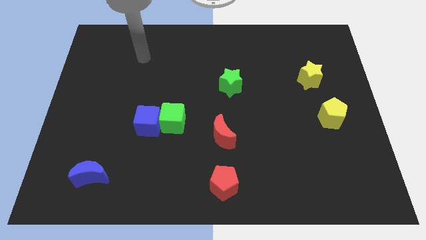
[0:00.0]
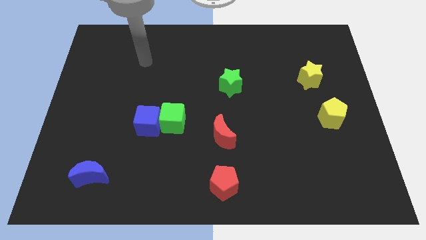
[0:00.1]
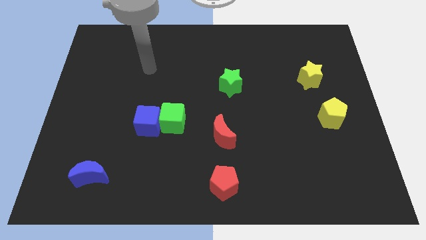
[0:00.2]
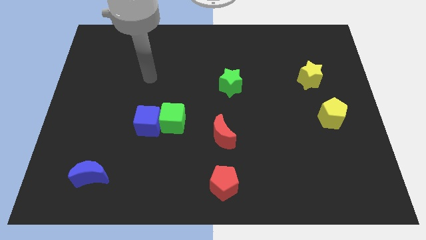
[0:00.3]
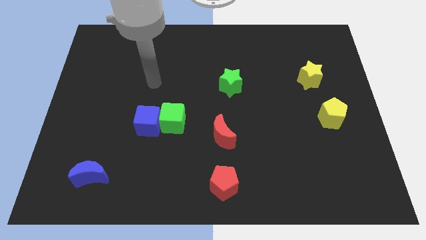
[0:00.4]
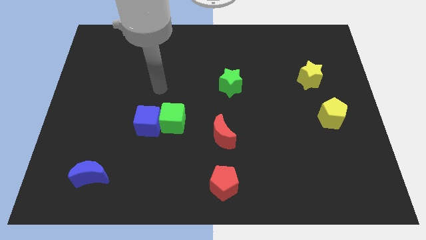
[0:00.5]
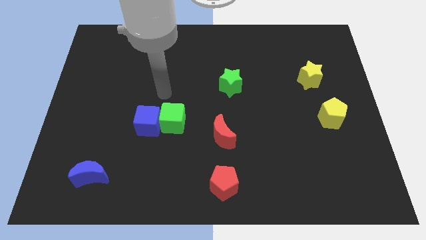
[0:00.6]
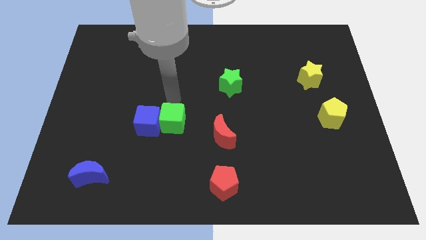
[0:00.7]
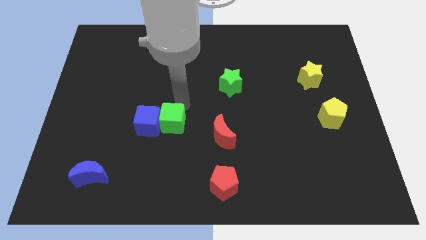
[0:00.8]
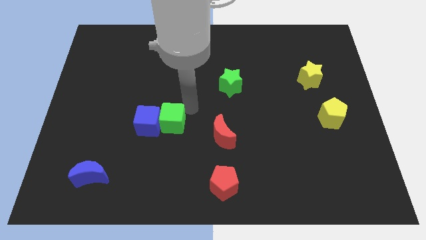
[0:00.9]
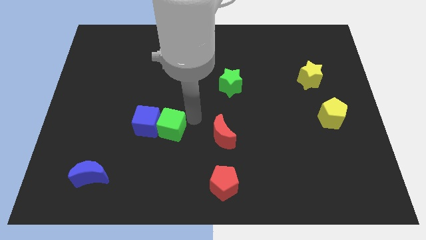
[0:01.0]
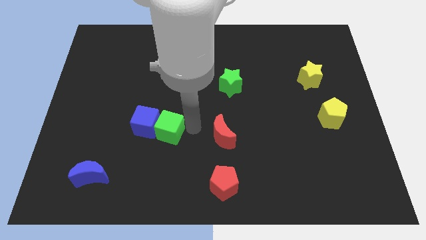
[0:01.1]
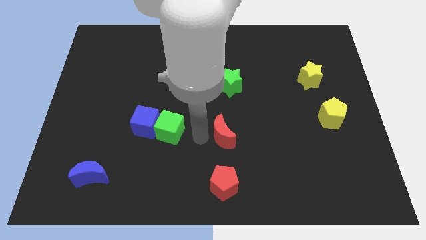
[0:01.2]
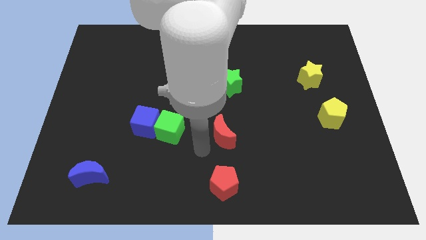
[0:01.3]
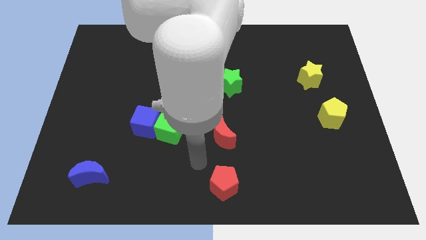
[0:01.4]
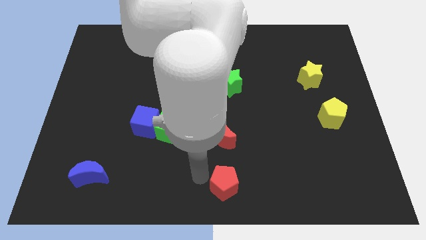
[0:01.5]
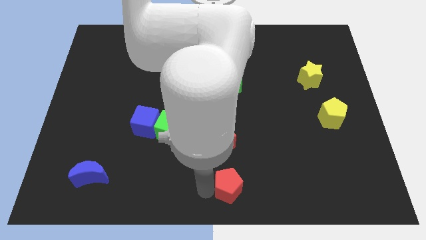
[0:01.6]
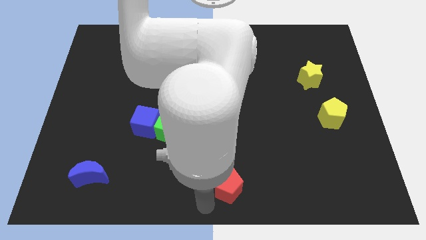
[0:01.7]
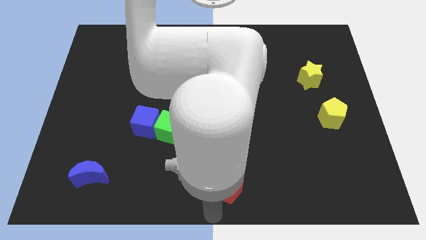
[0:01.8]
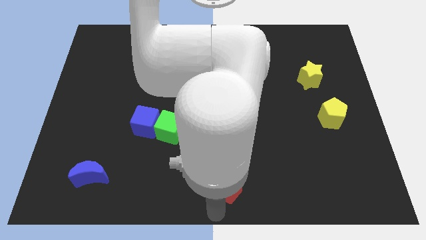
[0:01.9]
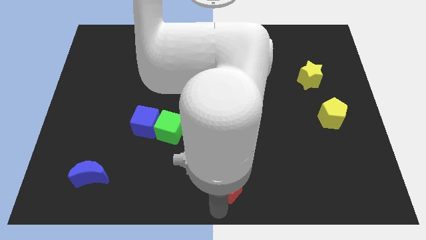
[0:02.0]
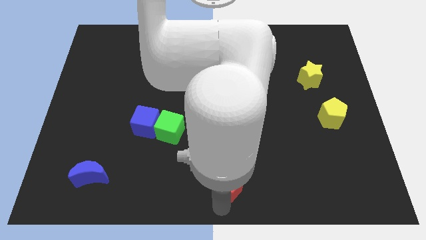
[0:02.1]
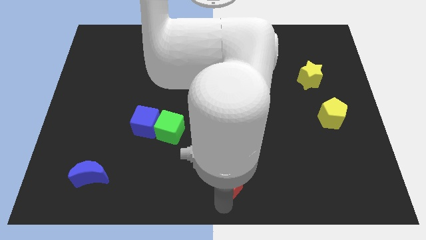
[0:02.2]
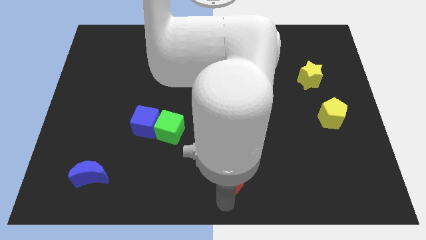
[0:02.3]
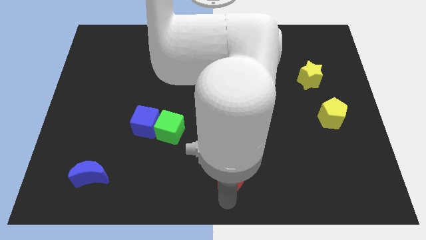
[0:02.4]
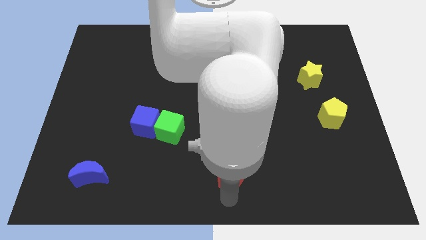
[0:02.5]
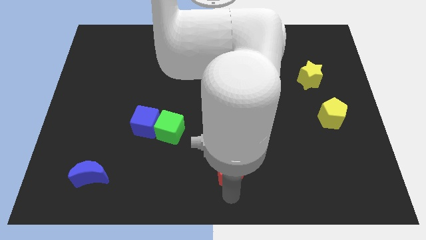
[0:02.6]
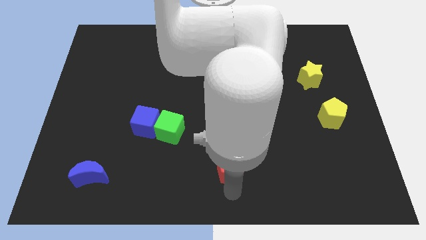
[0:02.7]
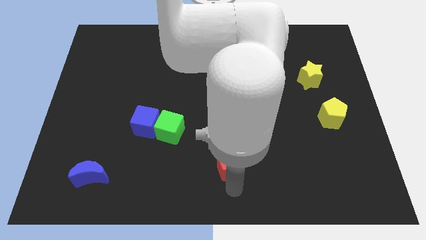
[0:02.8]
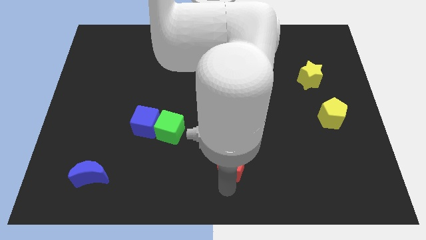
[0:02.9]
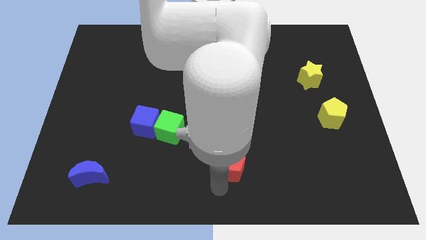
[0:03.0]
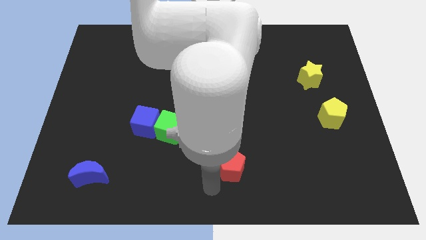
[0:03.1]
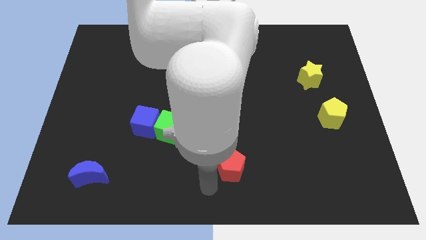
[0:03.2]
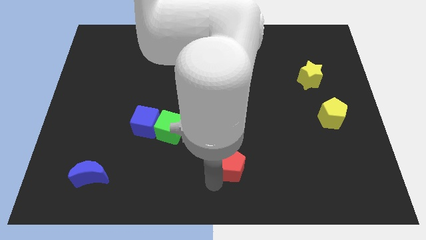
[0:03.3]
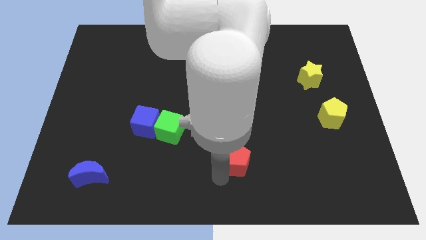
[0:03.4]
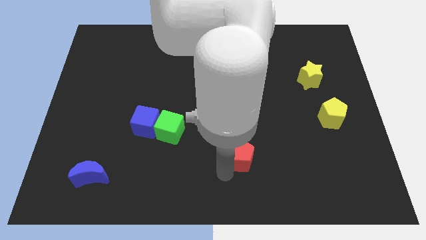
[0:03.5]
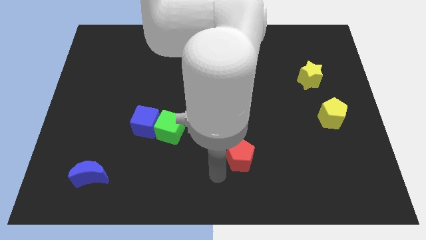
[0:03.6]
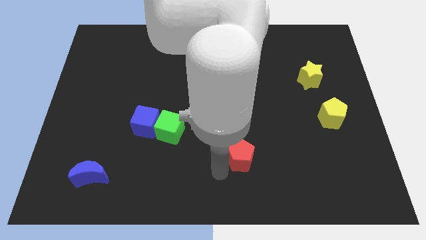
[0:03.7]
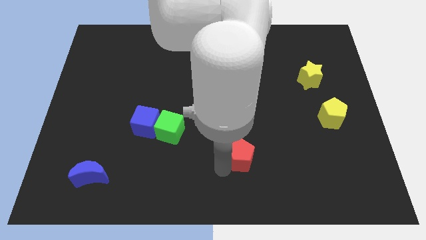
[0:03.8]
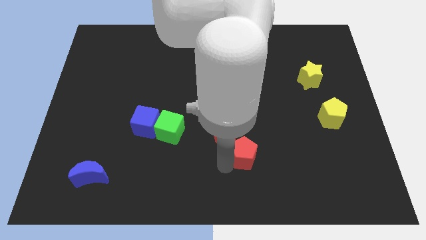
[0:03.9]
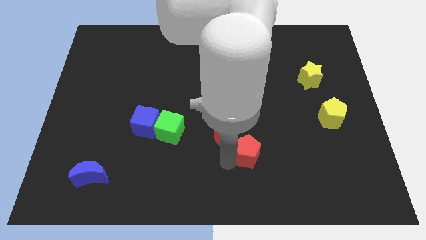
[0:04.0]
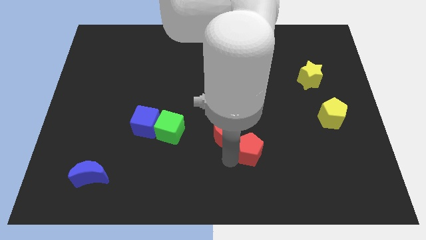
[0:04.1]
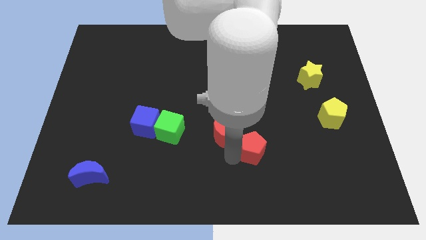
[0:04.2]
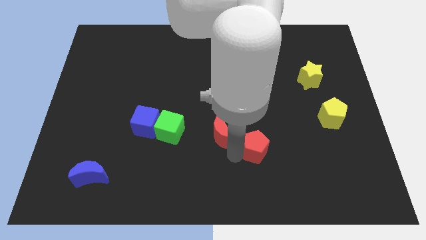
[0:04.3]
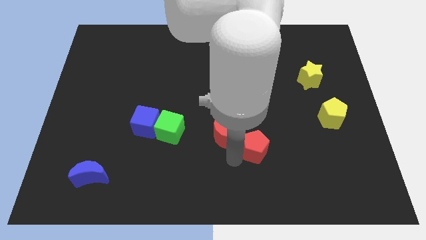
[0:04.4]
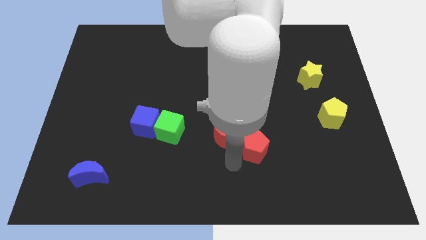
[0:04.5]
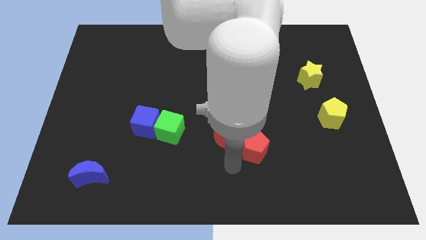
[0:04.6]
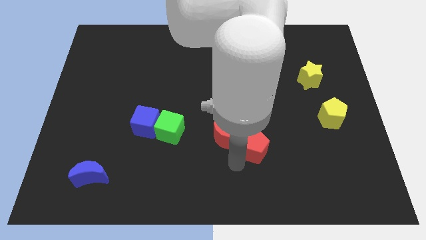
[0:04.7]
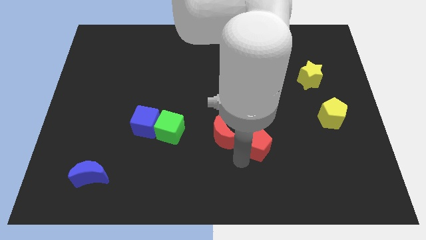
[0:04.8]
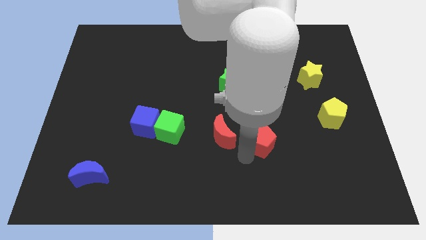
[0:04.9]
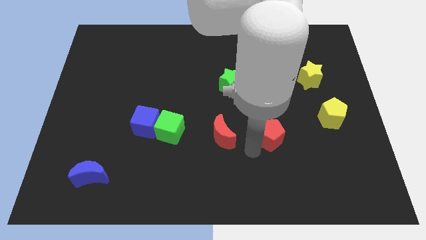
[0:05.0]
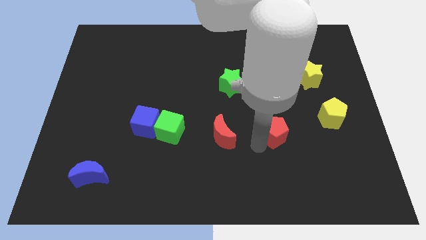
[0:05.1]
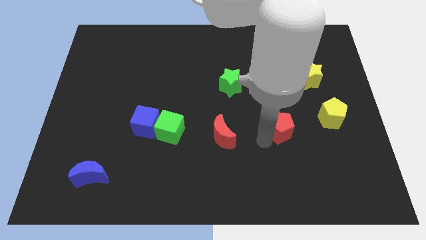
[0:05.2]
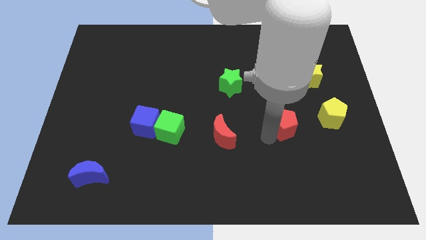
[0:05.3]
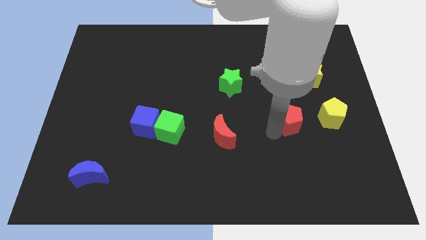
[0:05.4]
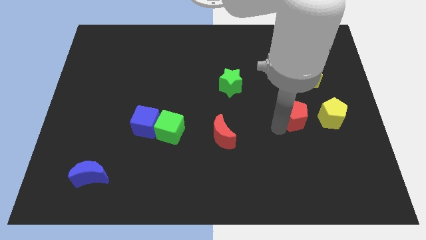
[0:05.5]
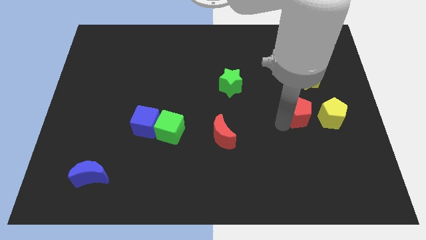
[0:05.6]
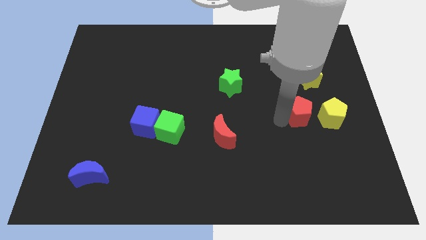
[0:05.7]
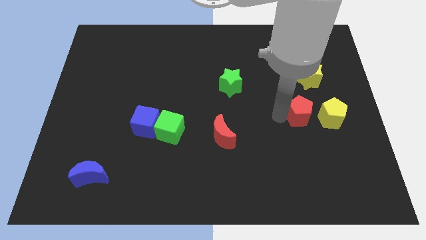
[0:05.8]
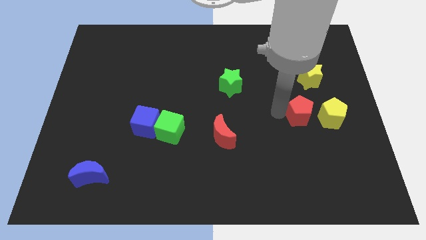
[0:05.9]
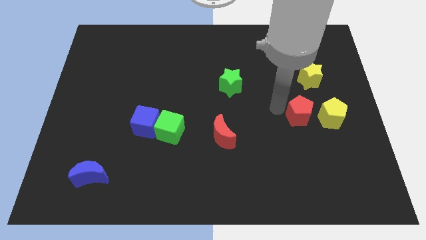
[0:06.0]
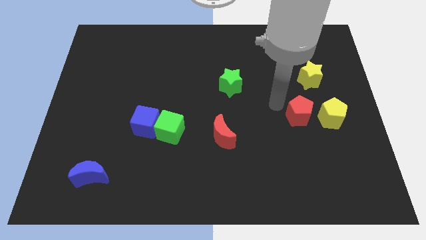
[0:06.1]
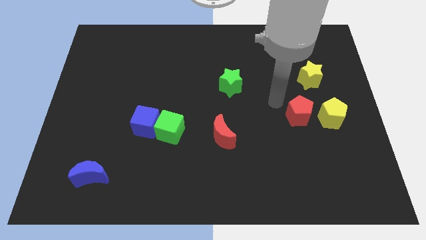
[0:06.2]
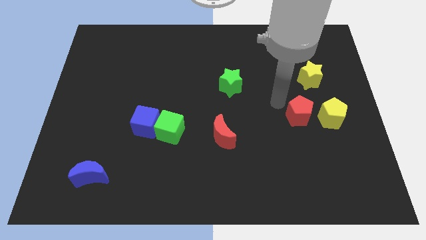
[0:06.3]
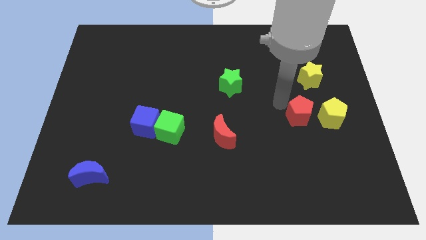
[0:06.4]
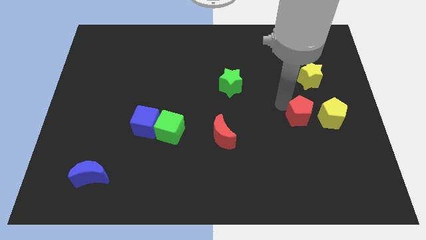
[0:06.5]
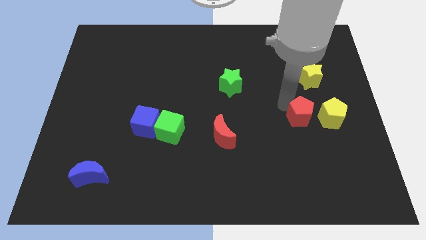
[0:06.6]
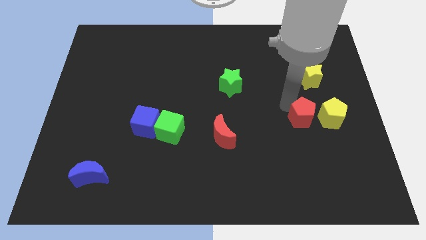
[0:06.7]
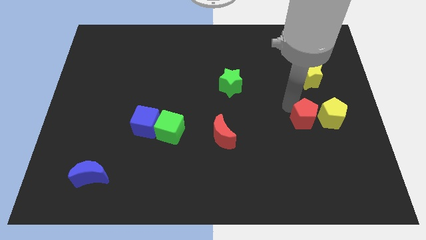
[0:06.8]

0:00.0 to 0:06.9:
push the red pentagon next to the yellow pentagon

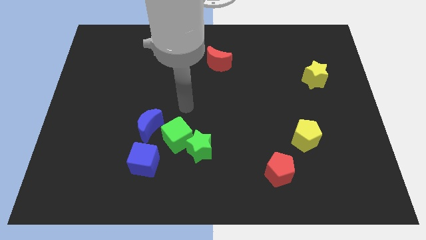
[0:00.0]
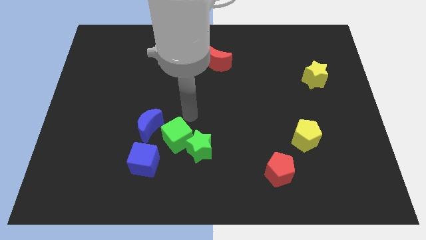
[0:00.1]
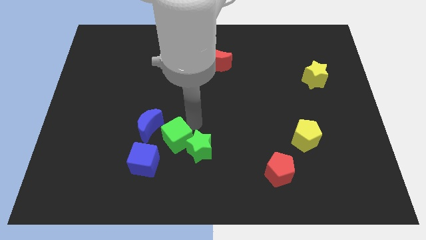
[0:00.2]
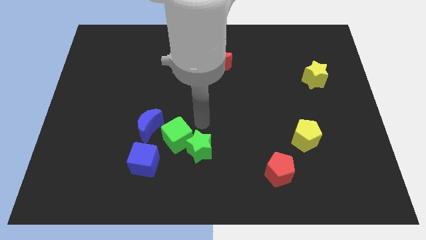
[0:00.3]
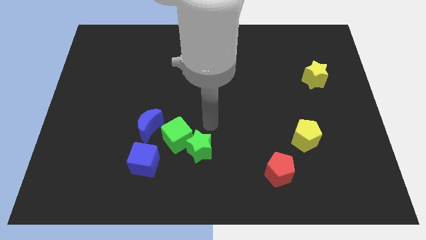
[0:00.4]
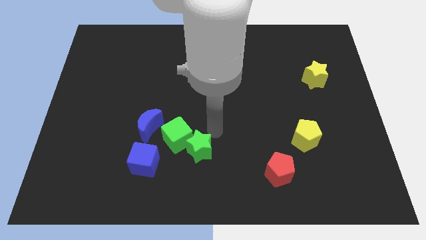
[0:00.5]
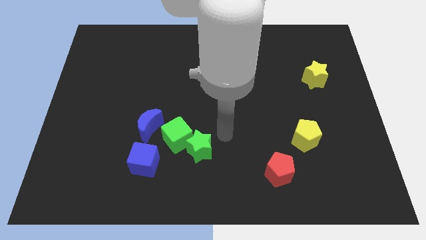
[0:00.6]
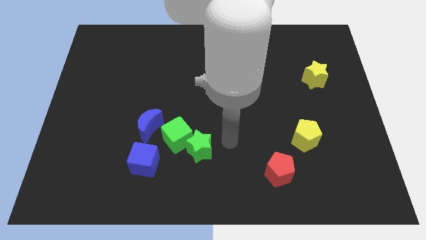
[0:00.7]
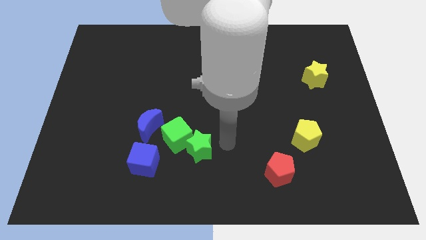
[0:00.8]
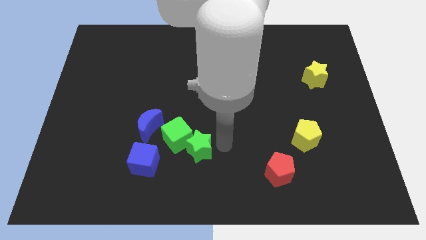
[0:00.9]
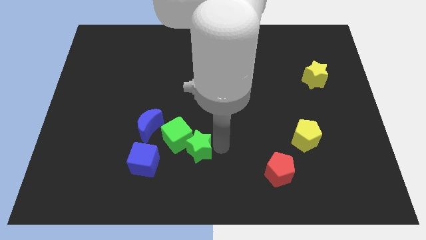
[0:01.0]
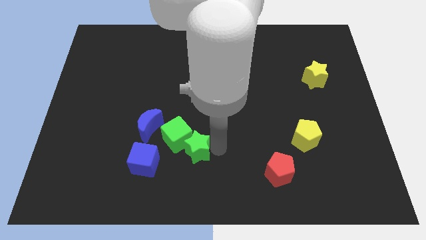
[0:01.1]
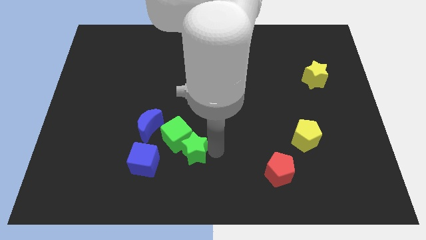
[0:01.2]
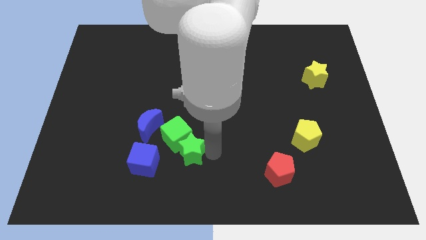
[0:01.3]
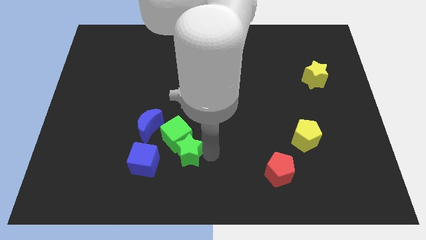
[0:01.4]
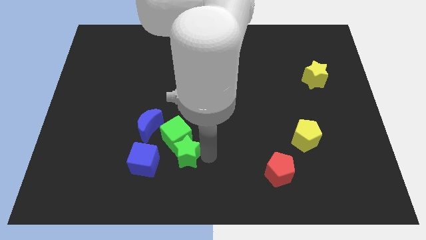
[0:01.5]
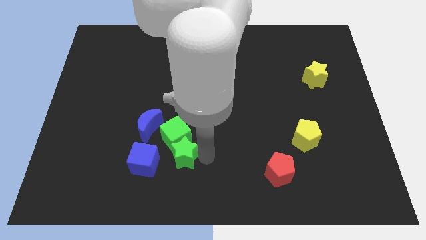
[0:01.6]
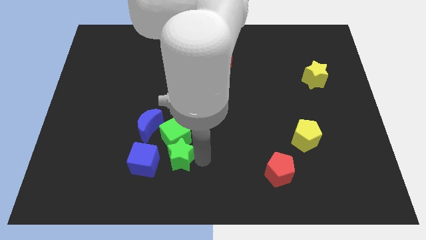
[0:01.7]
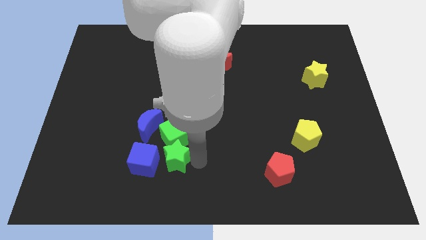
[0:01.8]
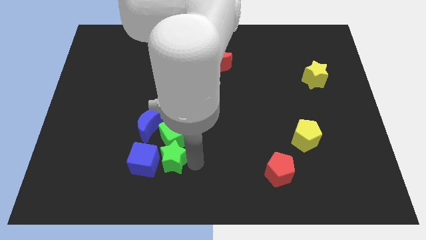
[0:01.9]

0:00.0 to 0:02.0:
push the green star close to the blue cube
